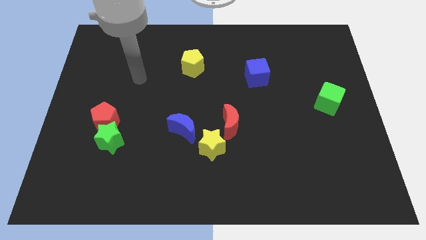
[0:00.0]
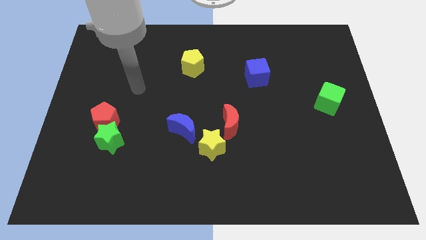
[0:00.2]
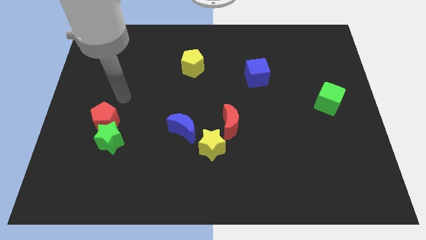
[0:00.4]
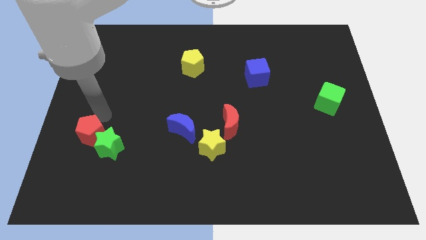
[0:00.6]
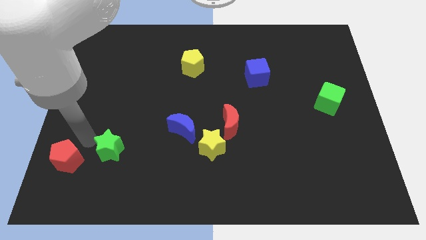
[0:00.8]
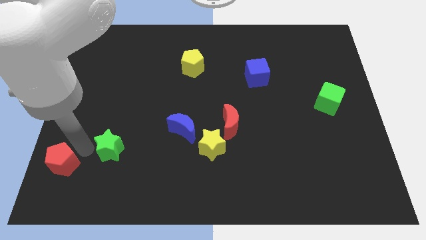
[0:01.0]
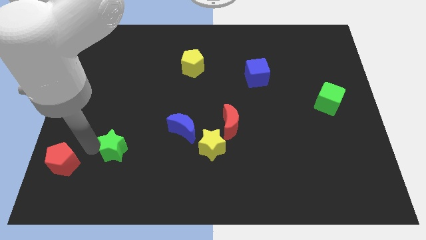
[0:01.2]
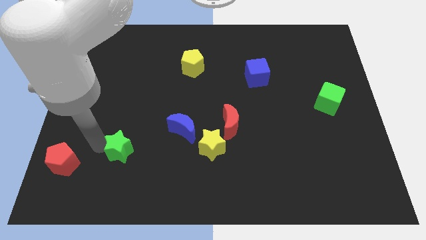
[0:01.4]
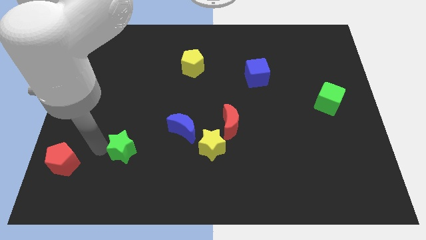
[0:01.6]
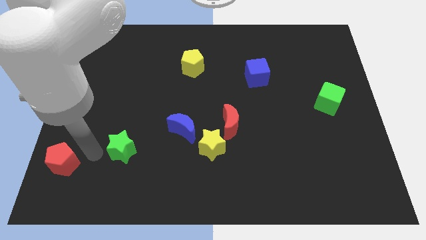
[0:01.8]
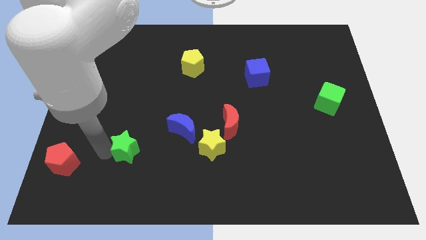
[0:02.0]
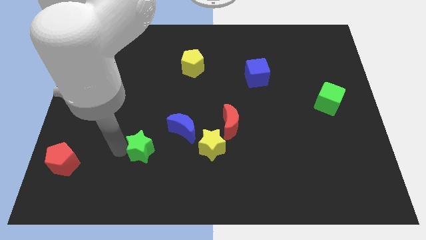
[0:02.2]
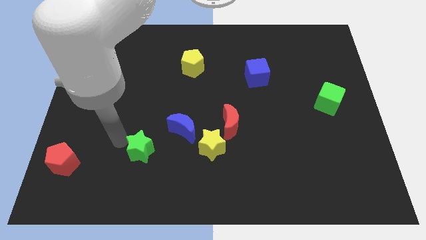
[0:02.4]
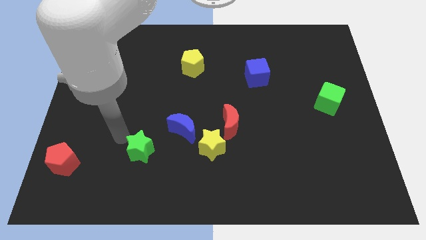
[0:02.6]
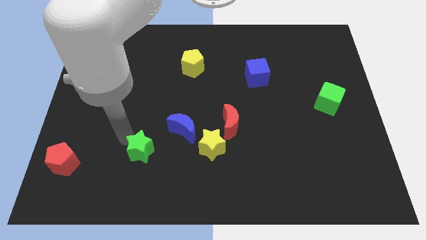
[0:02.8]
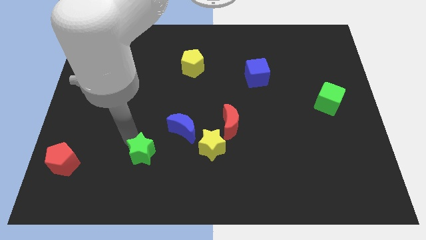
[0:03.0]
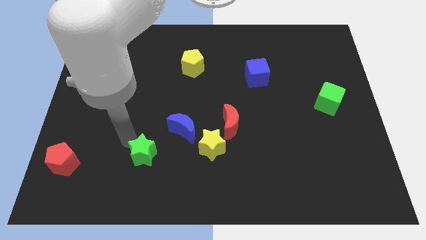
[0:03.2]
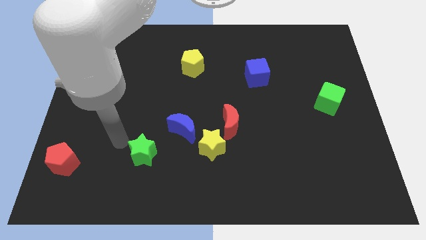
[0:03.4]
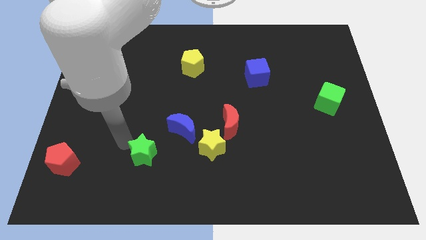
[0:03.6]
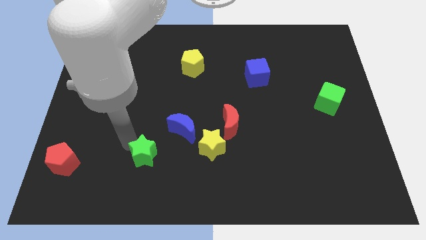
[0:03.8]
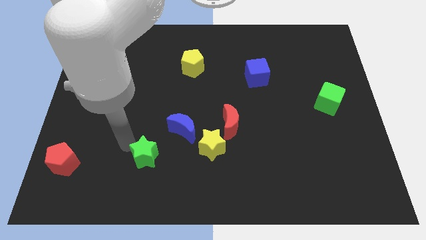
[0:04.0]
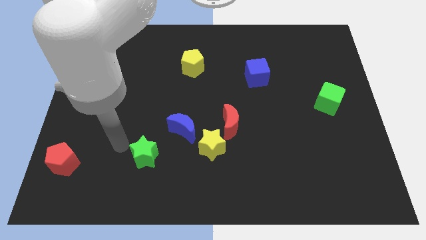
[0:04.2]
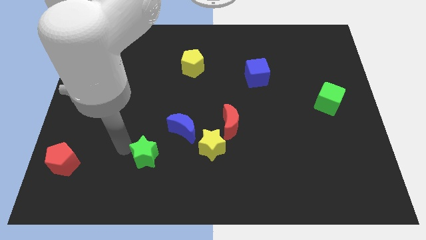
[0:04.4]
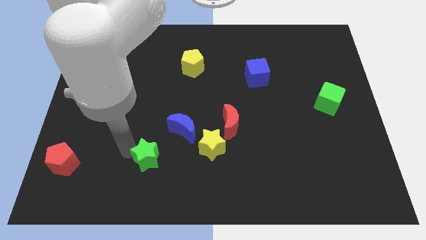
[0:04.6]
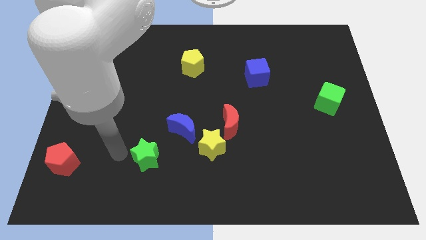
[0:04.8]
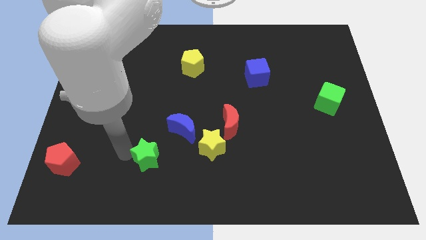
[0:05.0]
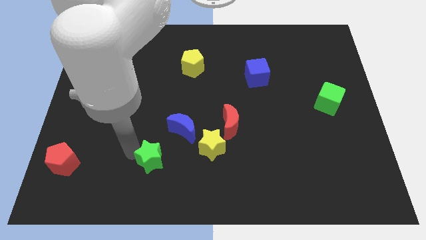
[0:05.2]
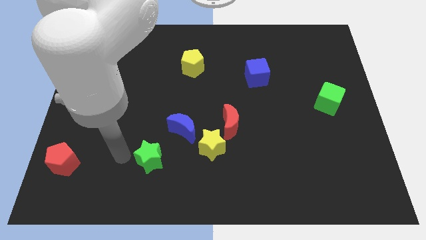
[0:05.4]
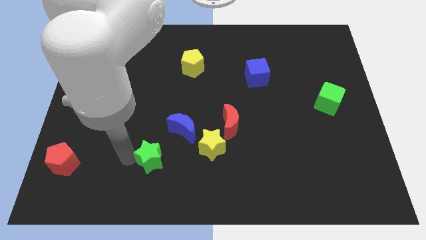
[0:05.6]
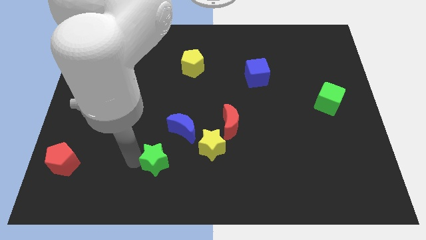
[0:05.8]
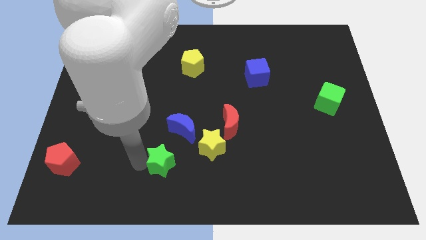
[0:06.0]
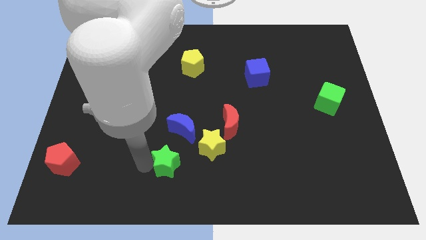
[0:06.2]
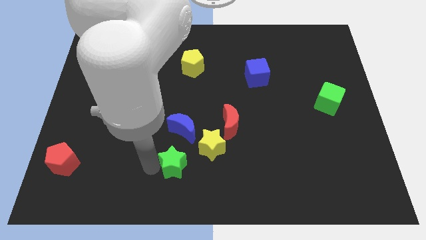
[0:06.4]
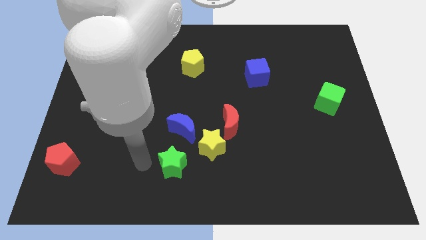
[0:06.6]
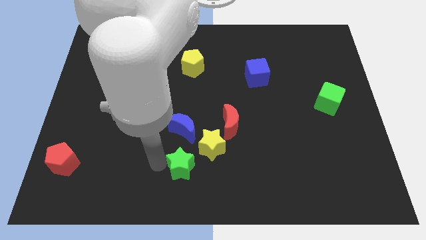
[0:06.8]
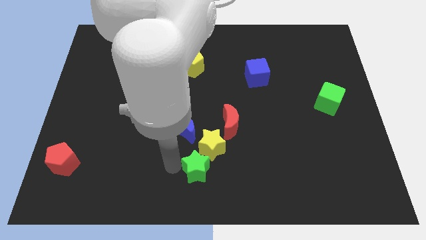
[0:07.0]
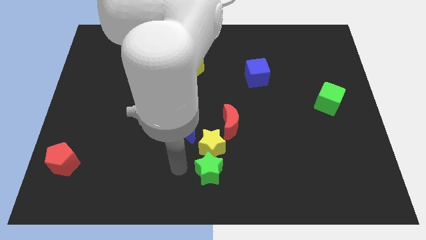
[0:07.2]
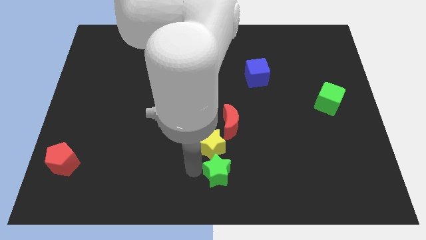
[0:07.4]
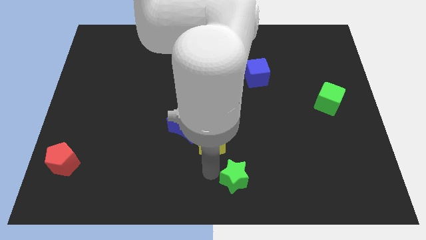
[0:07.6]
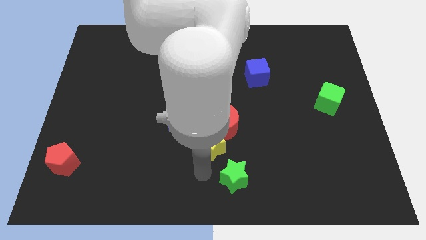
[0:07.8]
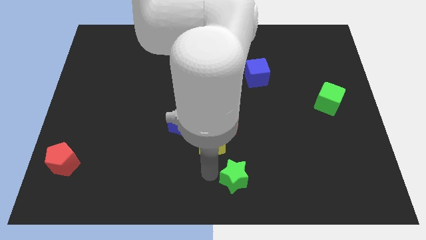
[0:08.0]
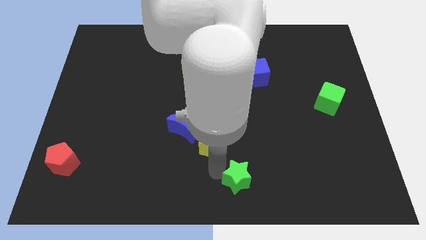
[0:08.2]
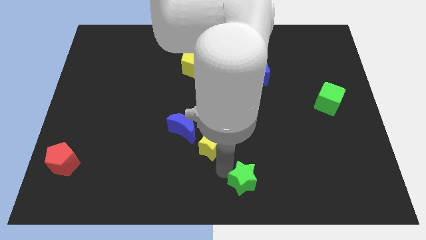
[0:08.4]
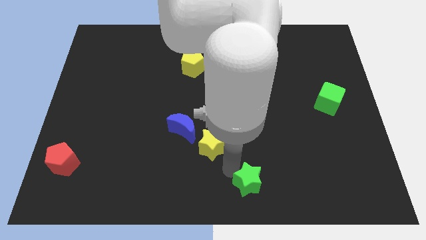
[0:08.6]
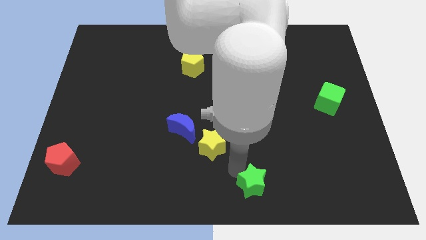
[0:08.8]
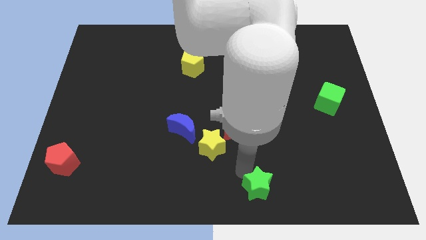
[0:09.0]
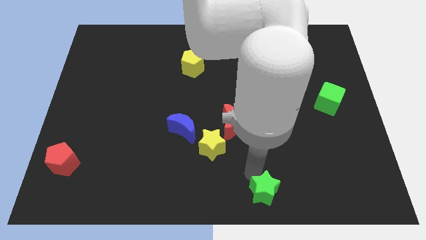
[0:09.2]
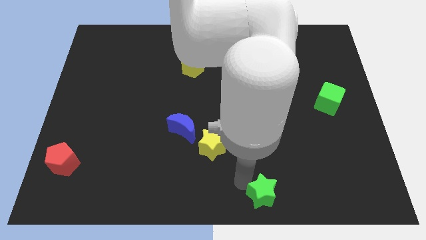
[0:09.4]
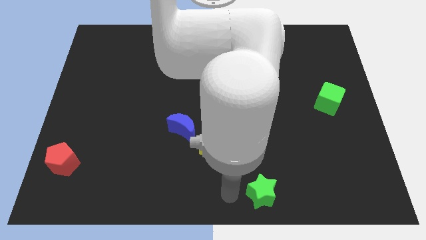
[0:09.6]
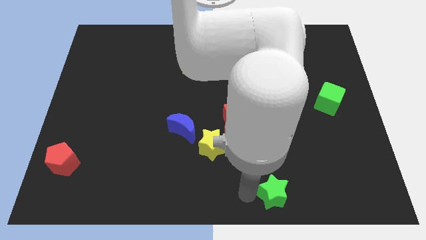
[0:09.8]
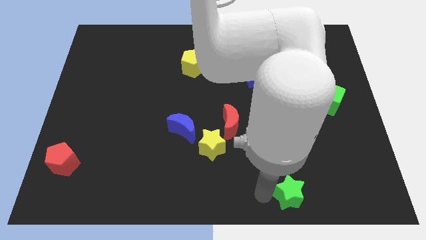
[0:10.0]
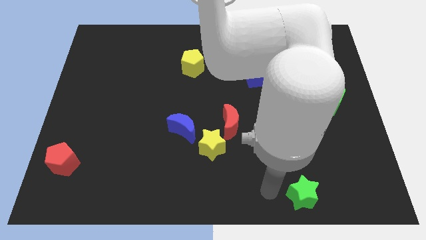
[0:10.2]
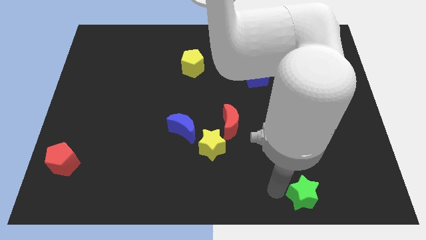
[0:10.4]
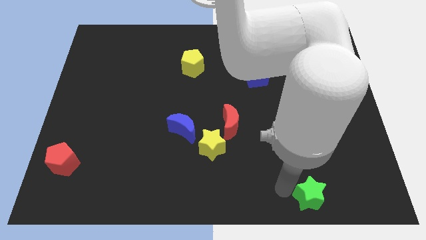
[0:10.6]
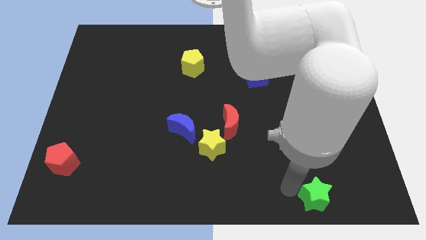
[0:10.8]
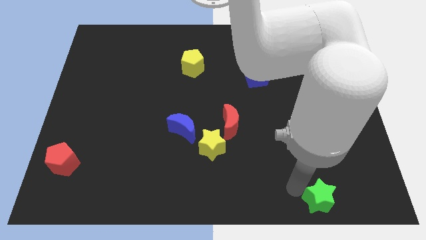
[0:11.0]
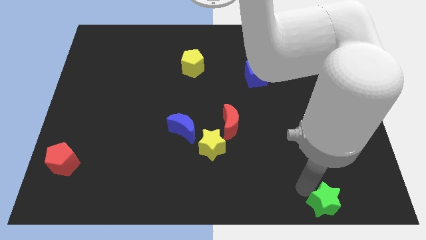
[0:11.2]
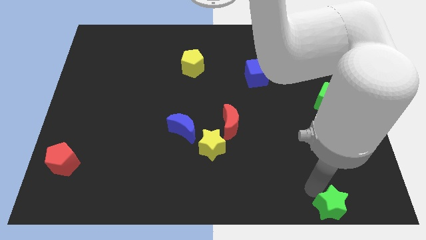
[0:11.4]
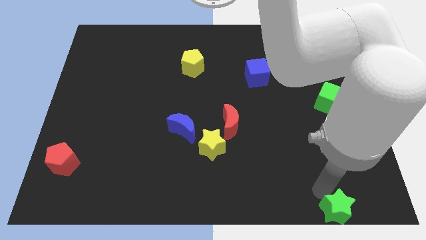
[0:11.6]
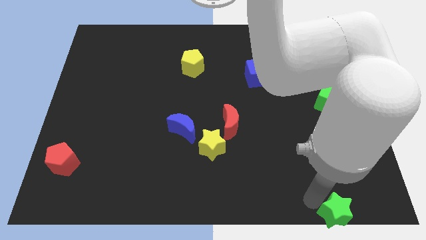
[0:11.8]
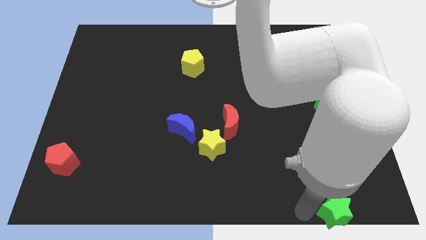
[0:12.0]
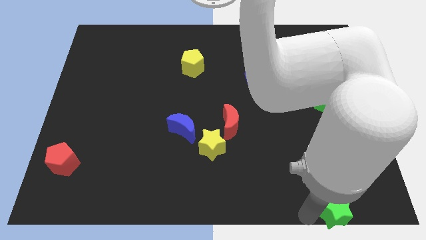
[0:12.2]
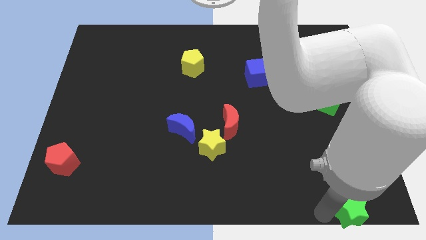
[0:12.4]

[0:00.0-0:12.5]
slide the green star to the lower right corner
